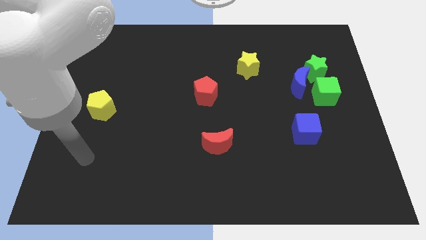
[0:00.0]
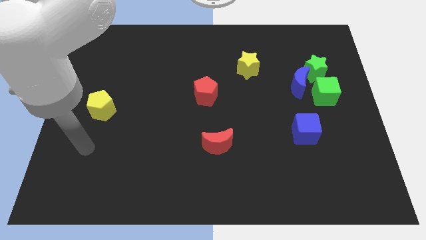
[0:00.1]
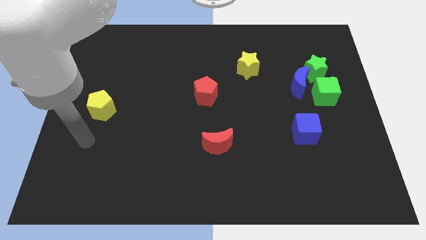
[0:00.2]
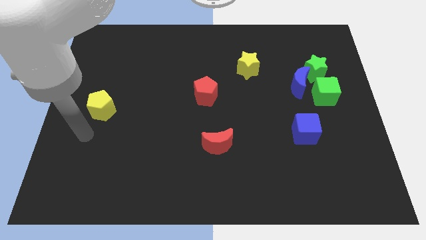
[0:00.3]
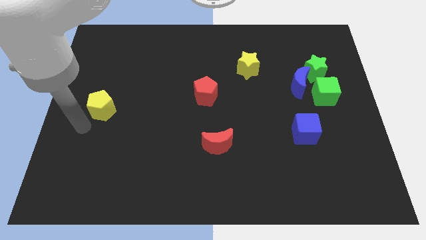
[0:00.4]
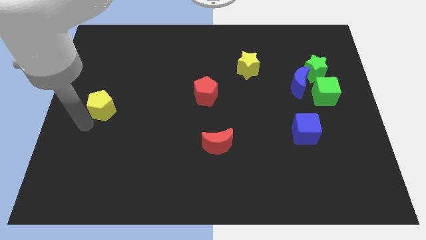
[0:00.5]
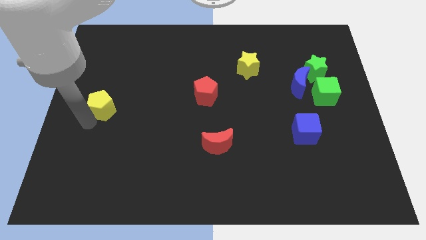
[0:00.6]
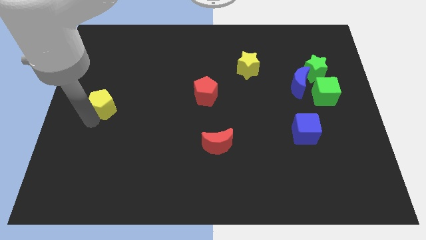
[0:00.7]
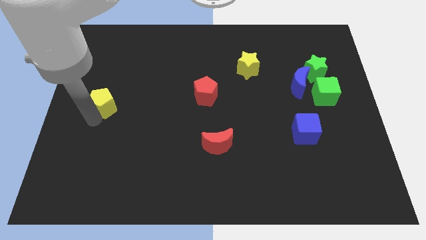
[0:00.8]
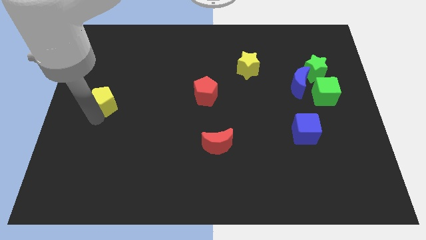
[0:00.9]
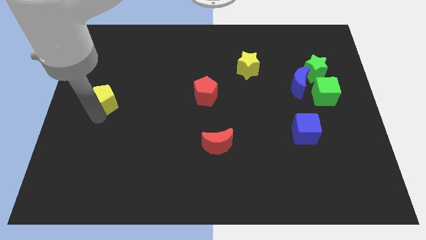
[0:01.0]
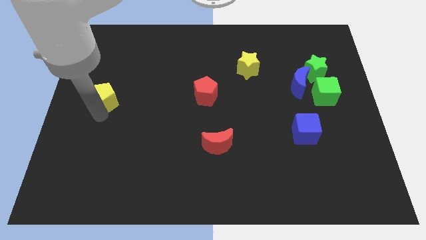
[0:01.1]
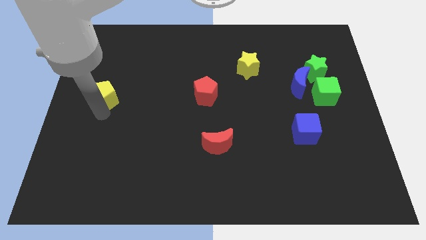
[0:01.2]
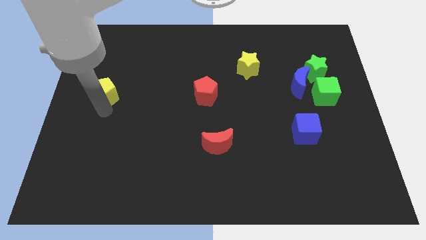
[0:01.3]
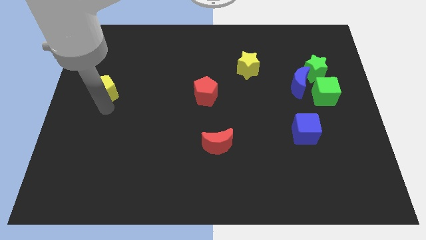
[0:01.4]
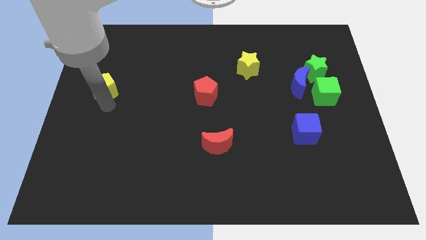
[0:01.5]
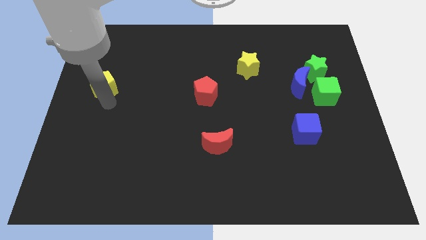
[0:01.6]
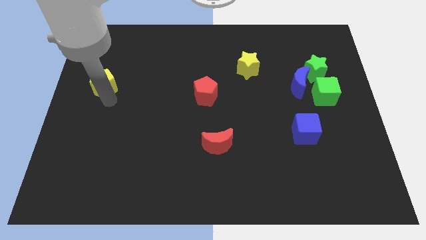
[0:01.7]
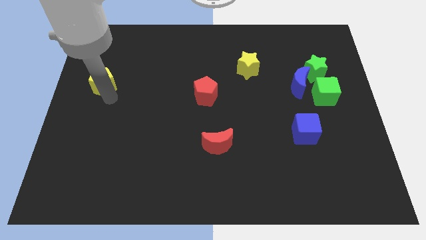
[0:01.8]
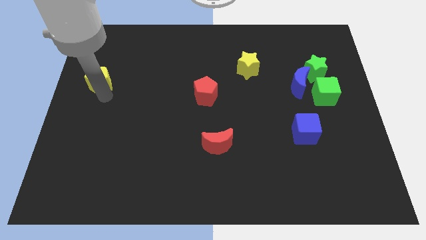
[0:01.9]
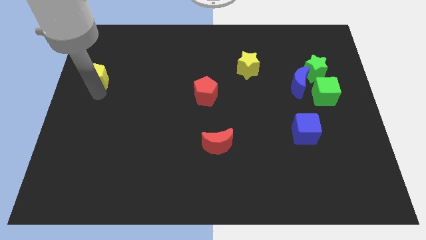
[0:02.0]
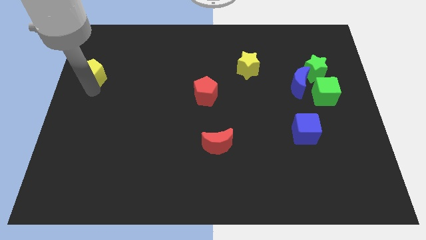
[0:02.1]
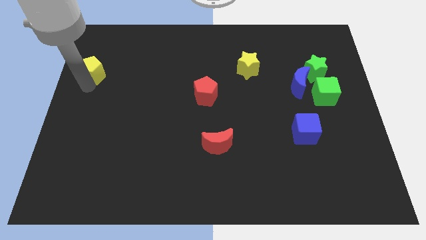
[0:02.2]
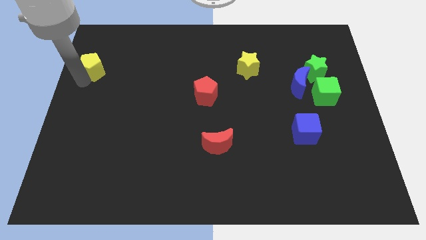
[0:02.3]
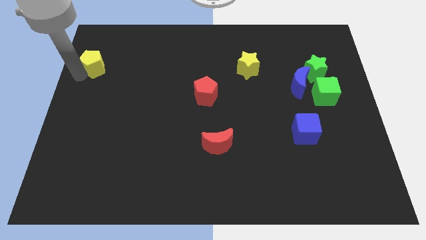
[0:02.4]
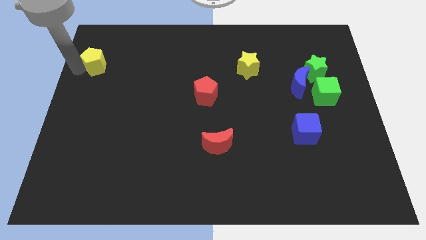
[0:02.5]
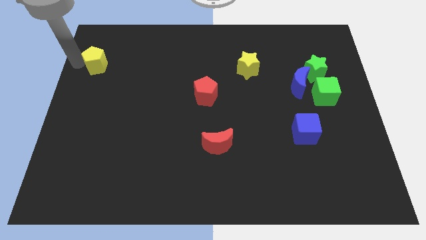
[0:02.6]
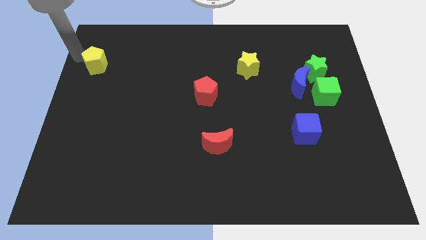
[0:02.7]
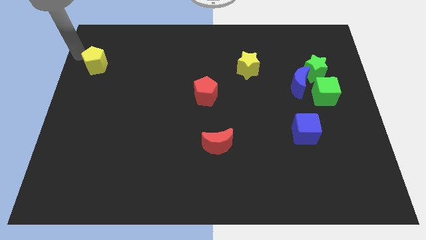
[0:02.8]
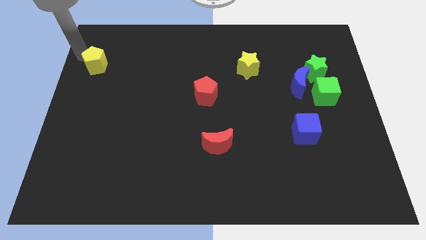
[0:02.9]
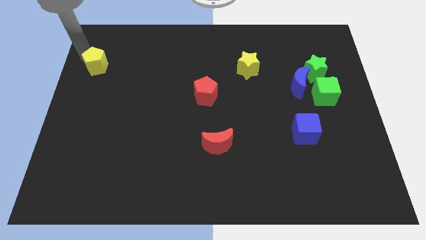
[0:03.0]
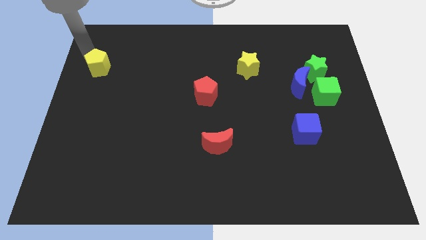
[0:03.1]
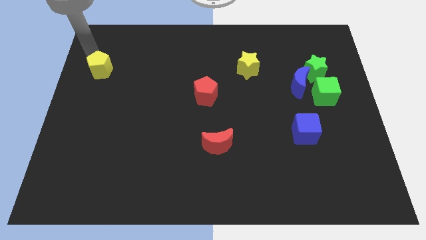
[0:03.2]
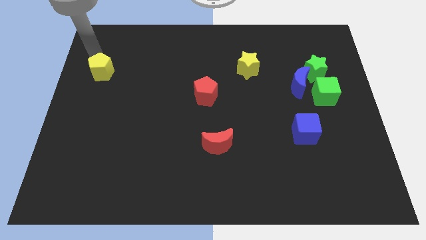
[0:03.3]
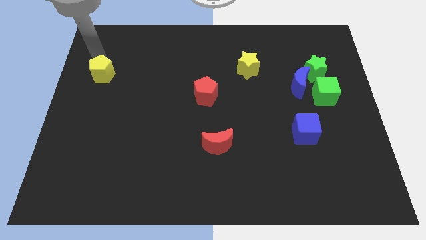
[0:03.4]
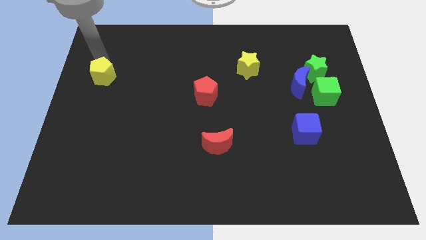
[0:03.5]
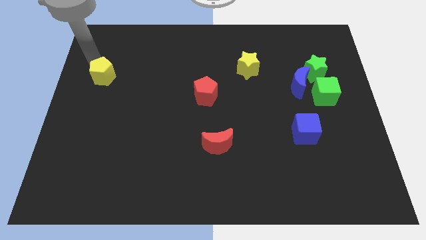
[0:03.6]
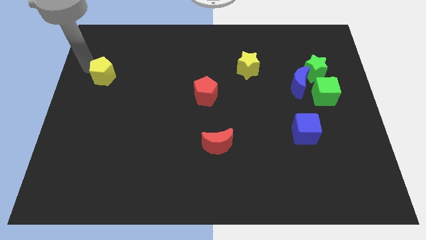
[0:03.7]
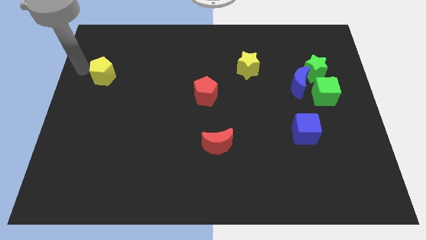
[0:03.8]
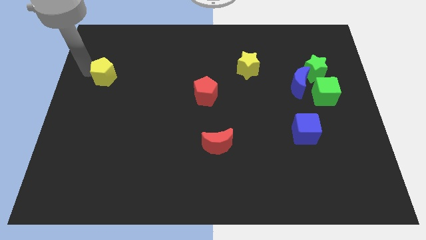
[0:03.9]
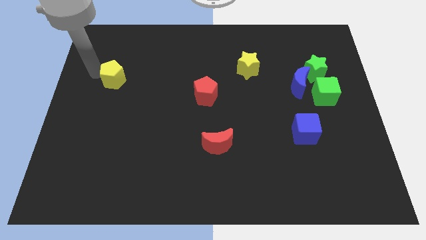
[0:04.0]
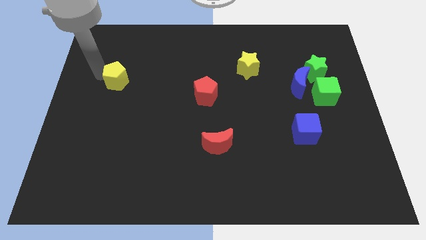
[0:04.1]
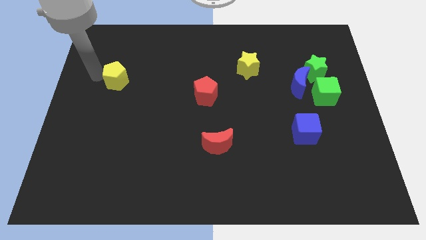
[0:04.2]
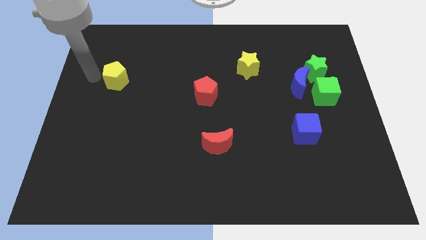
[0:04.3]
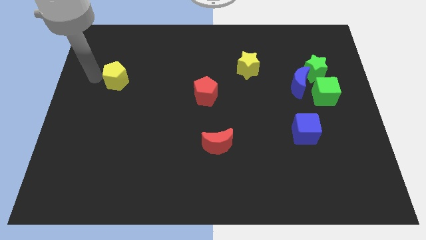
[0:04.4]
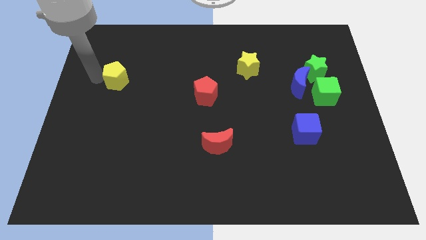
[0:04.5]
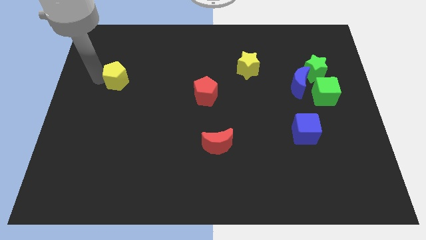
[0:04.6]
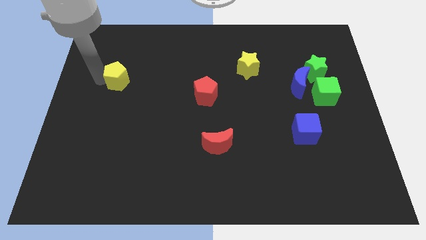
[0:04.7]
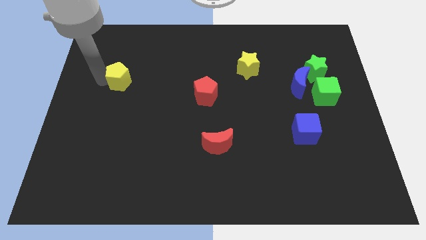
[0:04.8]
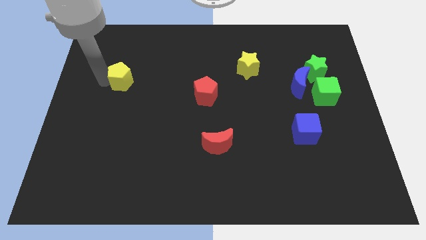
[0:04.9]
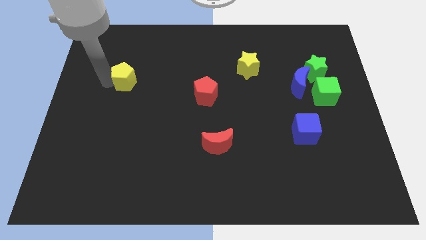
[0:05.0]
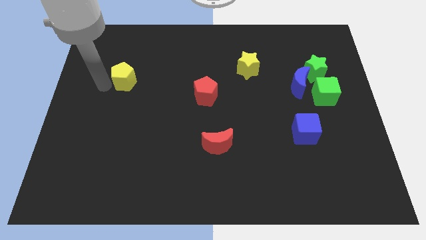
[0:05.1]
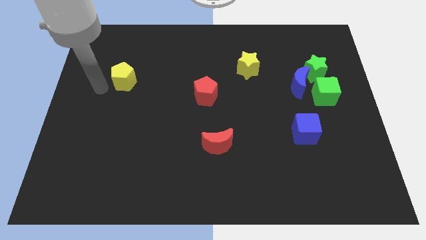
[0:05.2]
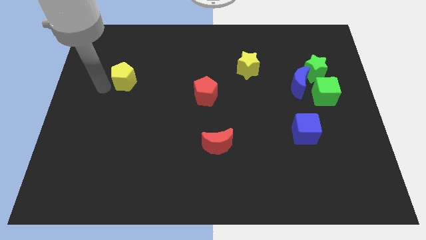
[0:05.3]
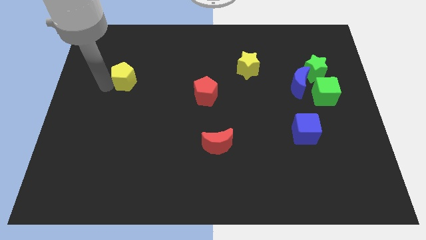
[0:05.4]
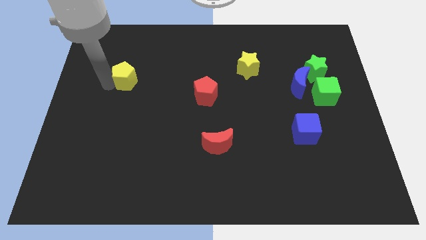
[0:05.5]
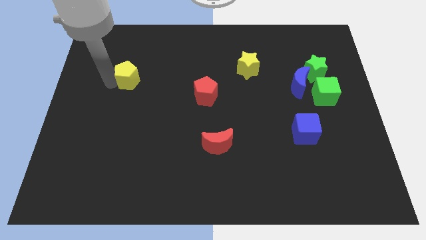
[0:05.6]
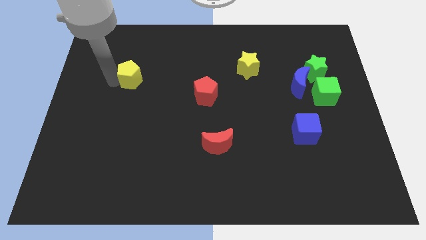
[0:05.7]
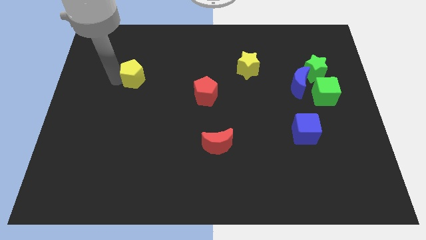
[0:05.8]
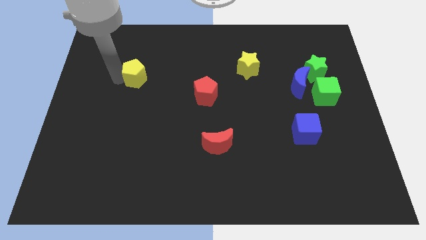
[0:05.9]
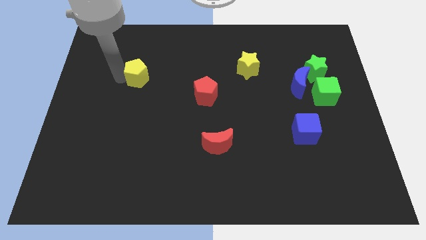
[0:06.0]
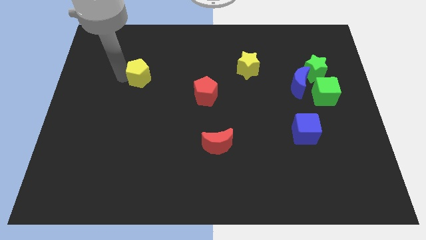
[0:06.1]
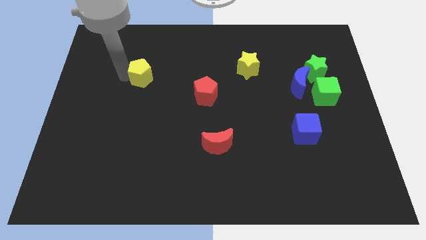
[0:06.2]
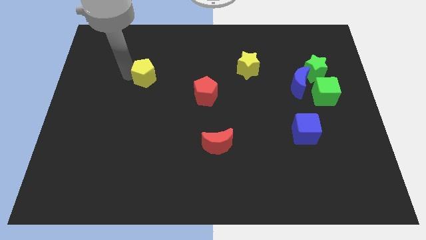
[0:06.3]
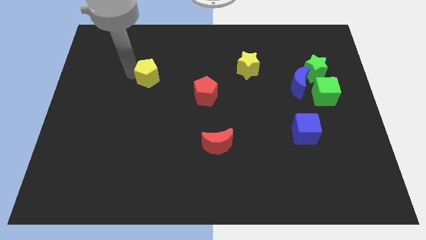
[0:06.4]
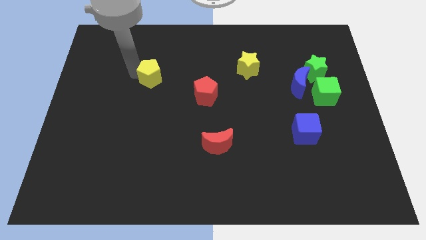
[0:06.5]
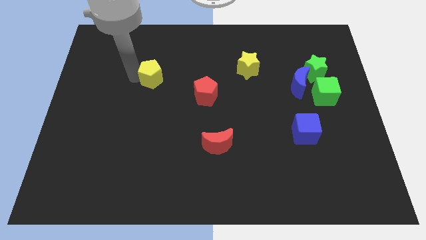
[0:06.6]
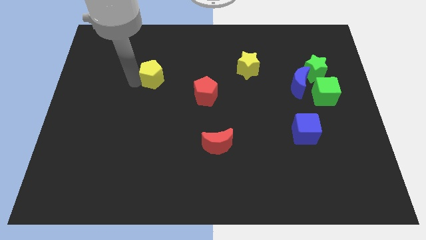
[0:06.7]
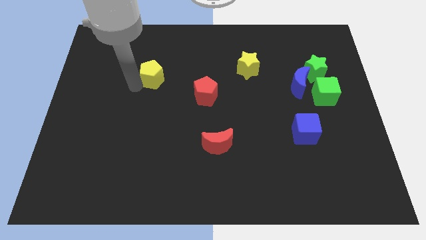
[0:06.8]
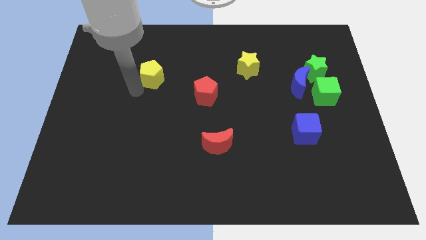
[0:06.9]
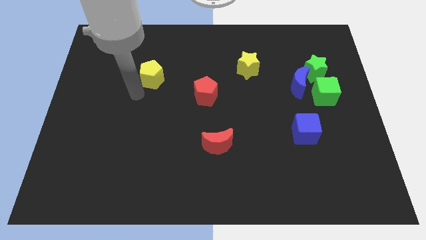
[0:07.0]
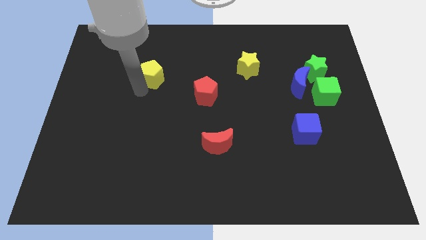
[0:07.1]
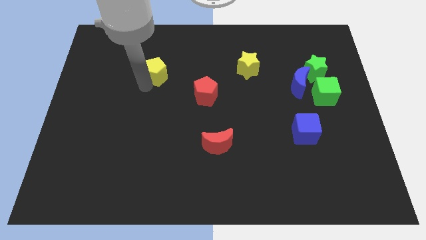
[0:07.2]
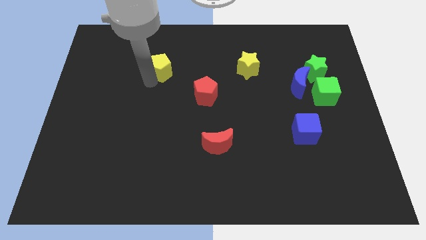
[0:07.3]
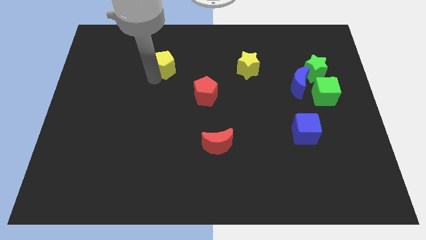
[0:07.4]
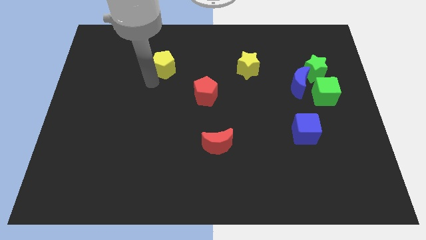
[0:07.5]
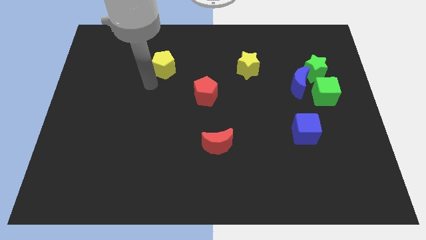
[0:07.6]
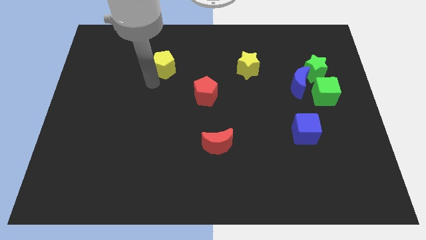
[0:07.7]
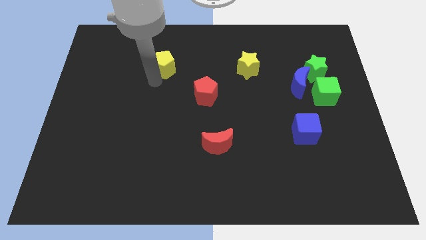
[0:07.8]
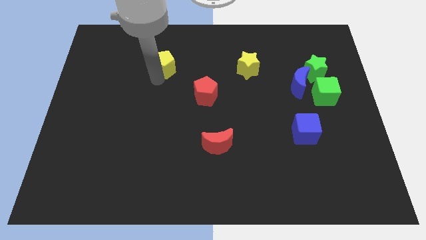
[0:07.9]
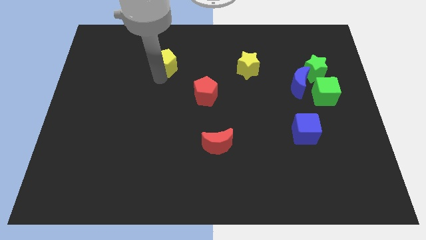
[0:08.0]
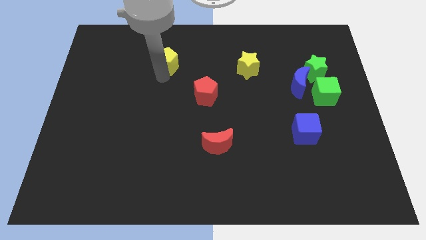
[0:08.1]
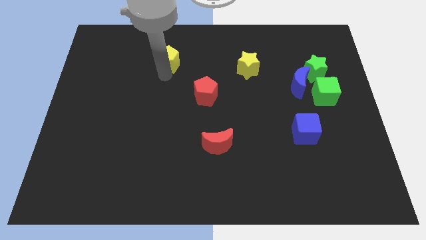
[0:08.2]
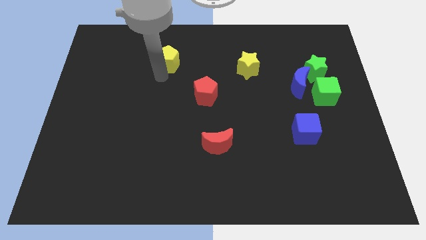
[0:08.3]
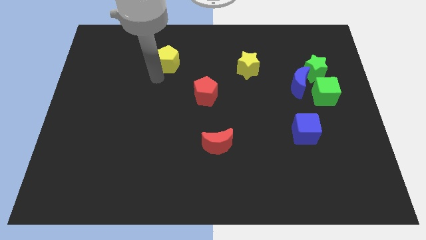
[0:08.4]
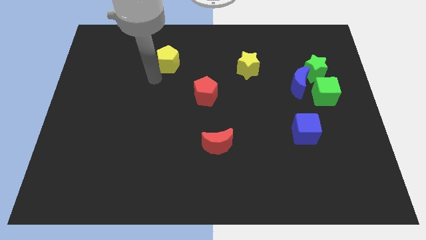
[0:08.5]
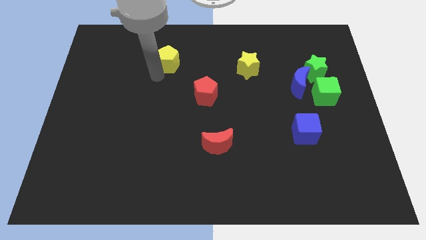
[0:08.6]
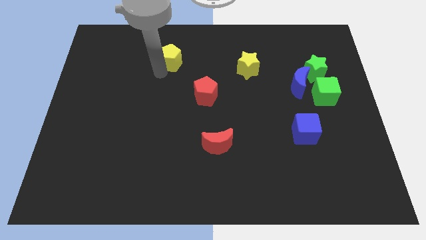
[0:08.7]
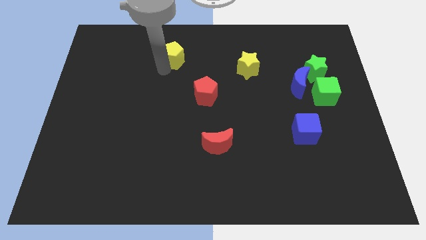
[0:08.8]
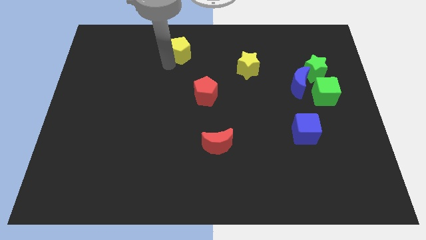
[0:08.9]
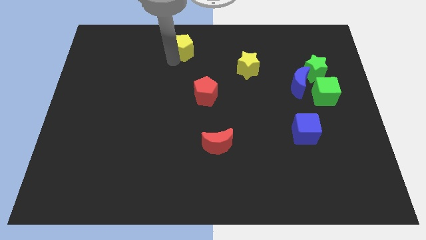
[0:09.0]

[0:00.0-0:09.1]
slide the yellow pentagon to the top side
